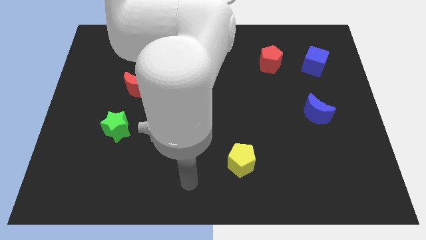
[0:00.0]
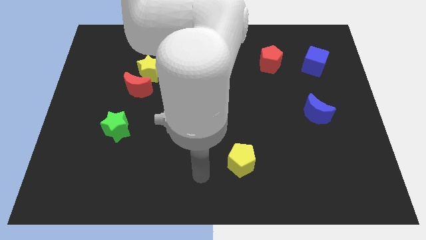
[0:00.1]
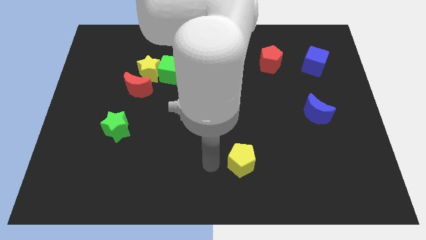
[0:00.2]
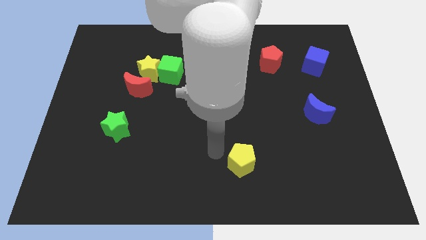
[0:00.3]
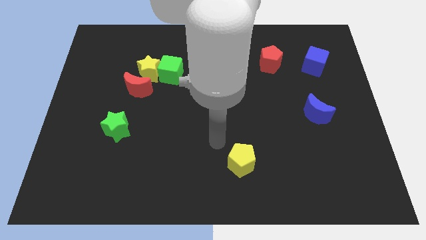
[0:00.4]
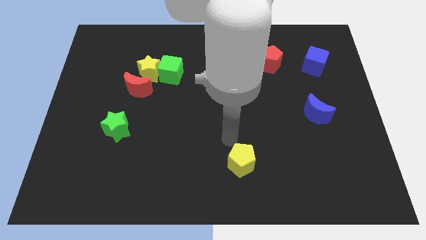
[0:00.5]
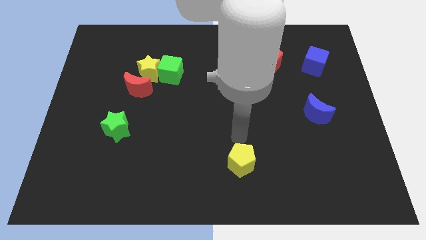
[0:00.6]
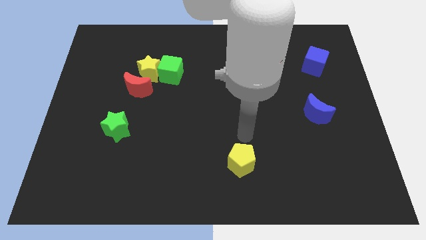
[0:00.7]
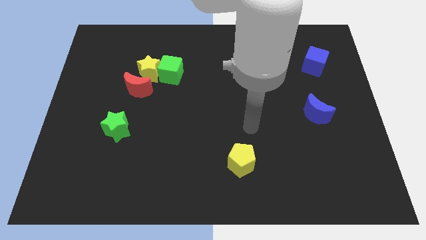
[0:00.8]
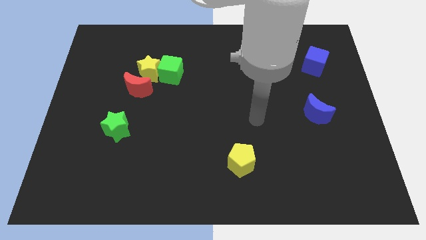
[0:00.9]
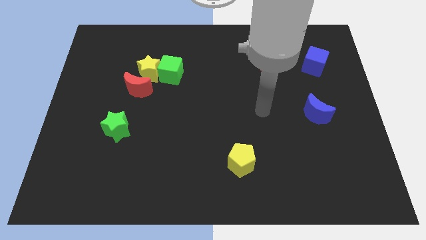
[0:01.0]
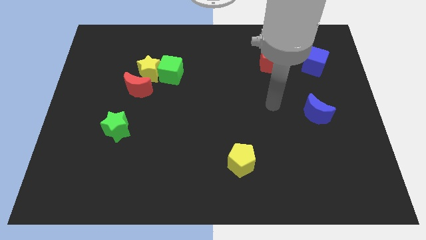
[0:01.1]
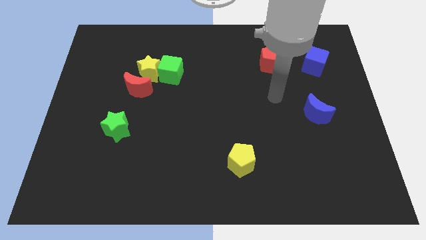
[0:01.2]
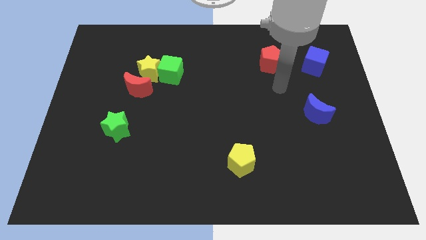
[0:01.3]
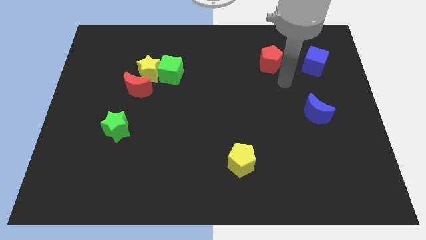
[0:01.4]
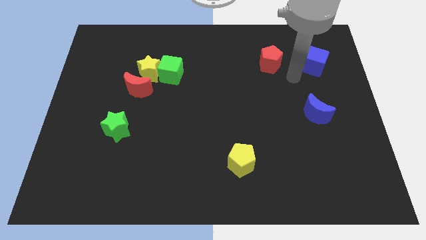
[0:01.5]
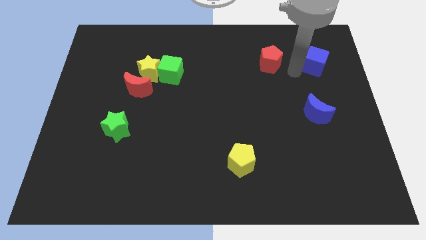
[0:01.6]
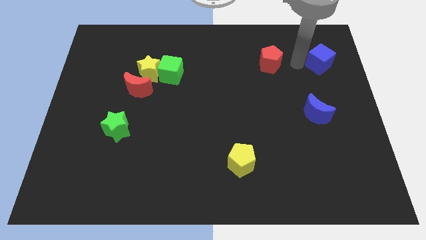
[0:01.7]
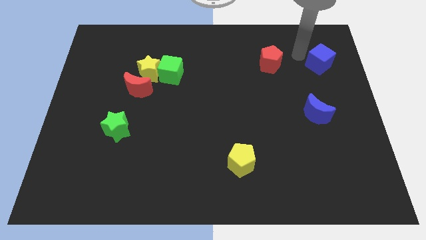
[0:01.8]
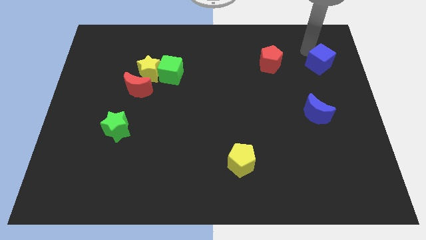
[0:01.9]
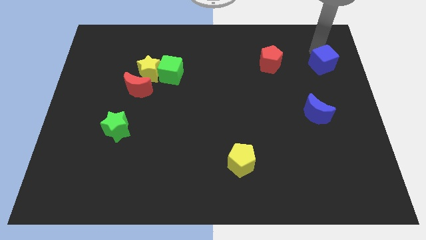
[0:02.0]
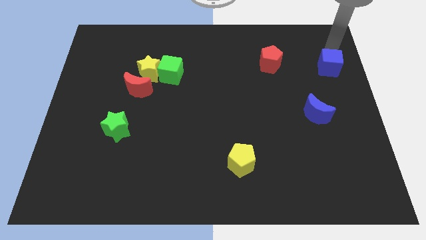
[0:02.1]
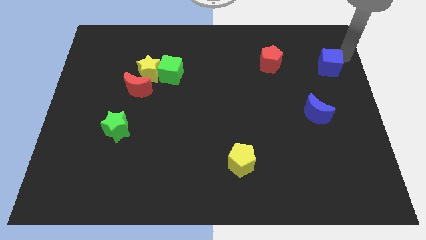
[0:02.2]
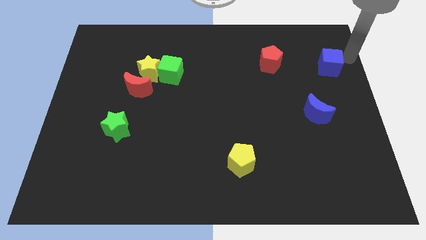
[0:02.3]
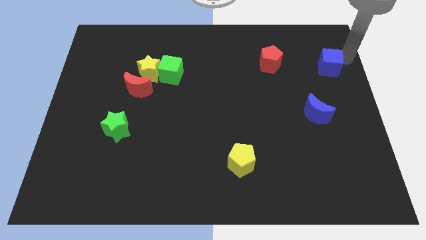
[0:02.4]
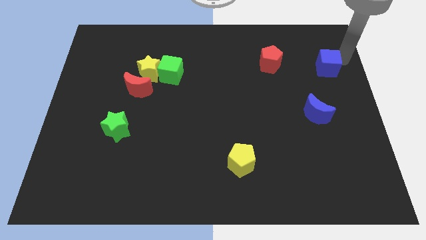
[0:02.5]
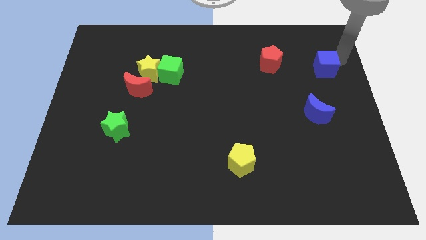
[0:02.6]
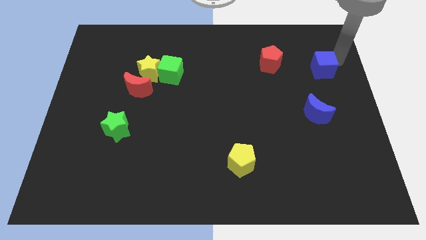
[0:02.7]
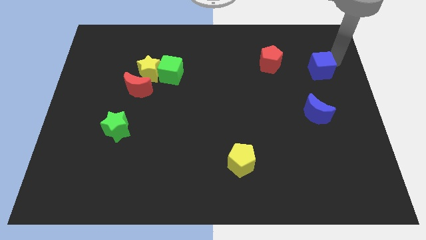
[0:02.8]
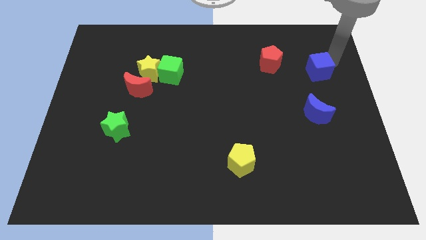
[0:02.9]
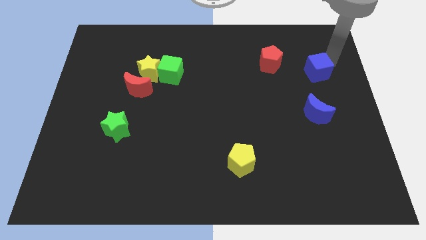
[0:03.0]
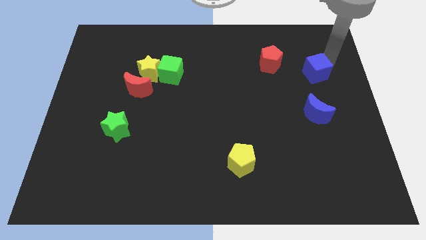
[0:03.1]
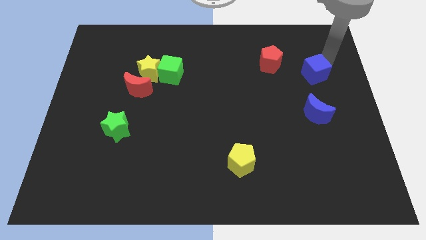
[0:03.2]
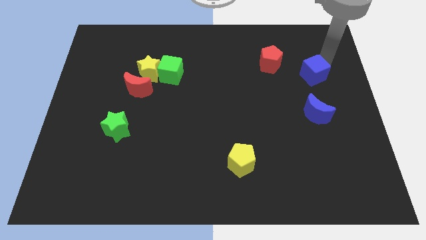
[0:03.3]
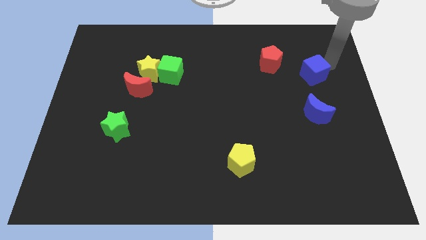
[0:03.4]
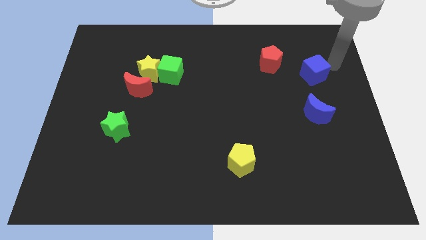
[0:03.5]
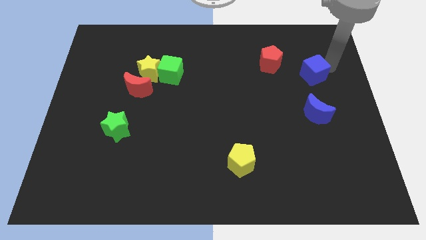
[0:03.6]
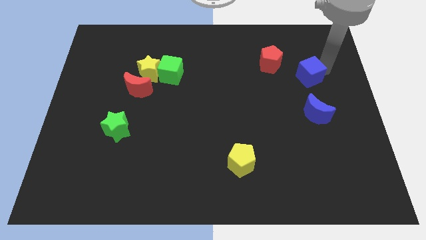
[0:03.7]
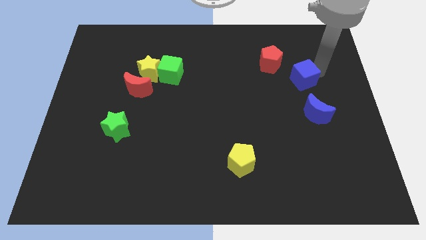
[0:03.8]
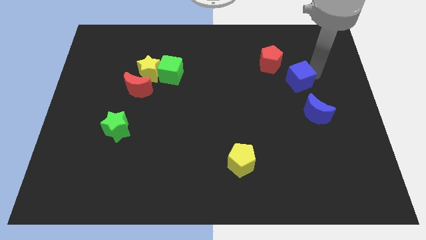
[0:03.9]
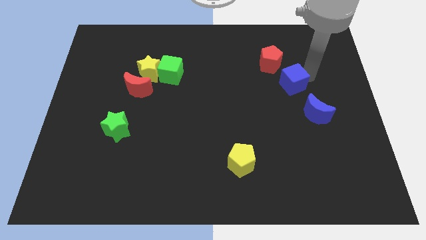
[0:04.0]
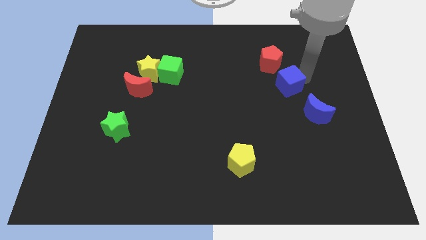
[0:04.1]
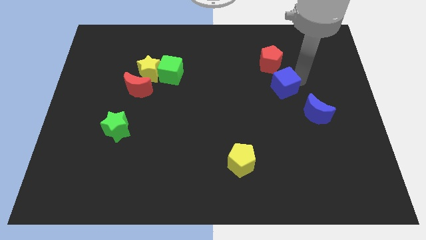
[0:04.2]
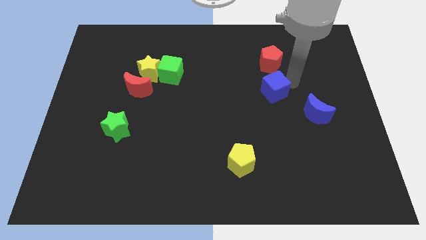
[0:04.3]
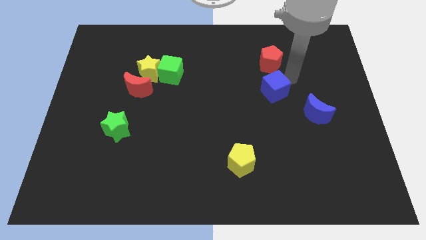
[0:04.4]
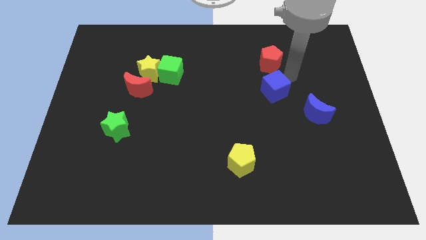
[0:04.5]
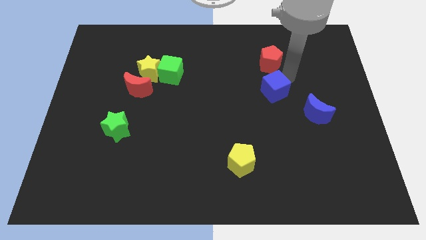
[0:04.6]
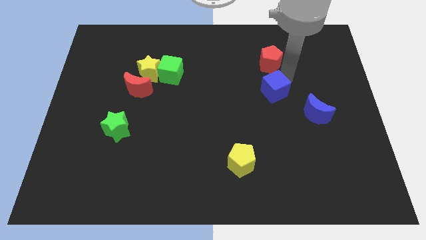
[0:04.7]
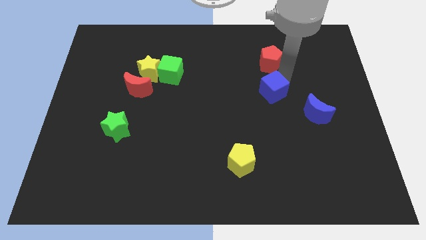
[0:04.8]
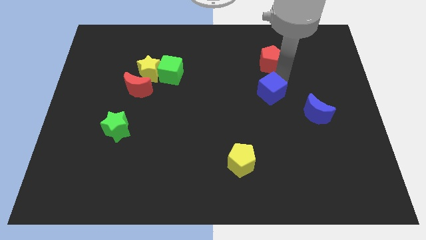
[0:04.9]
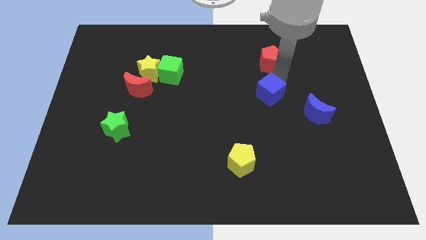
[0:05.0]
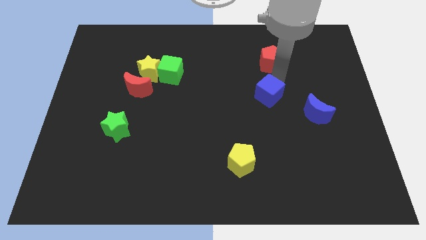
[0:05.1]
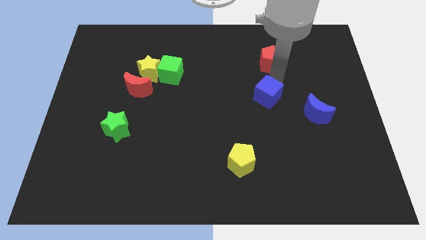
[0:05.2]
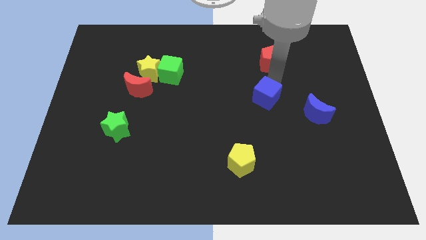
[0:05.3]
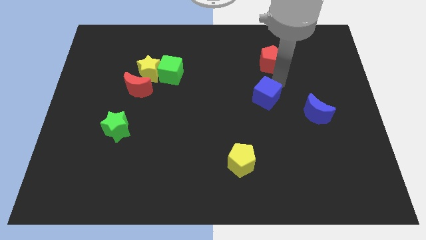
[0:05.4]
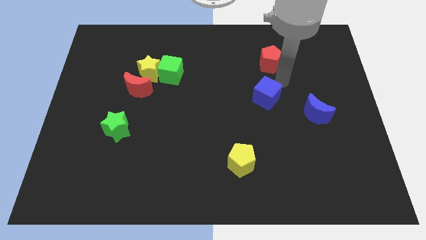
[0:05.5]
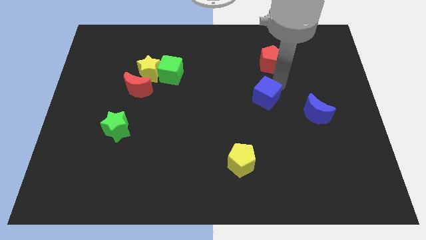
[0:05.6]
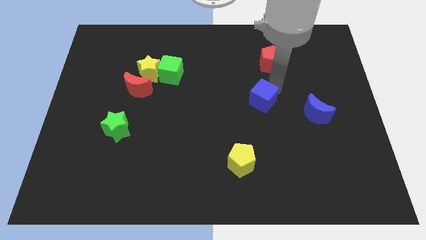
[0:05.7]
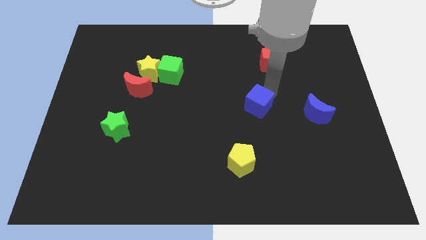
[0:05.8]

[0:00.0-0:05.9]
move the blue cube down and left diagonally

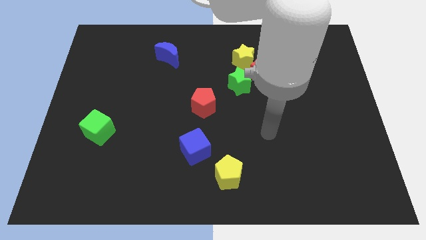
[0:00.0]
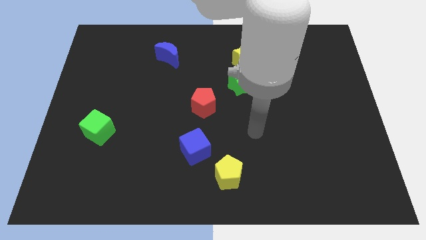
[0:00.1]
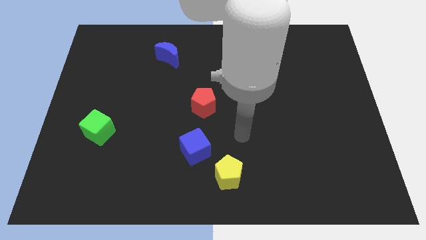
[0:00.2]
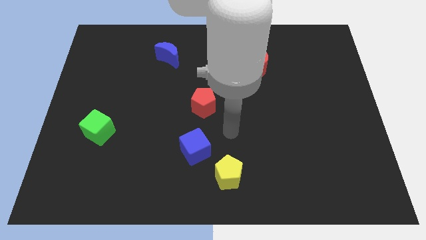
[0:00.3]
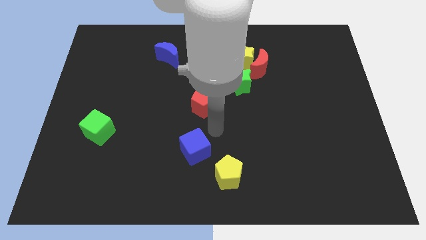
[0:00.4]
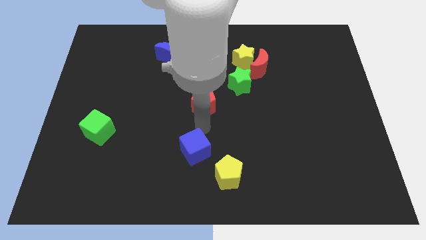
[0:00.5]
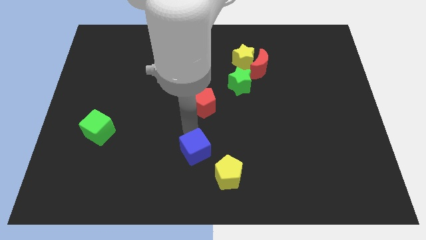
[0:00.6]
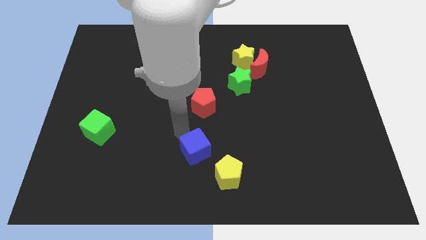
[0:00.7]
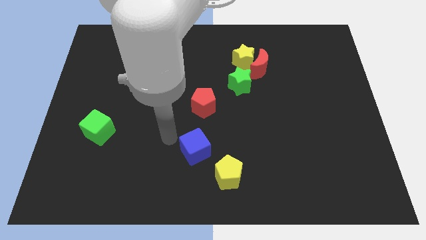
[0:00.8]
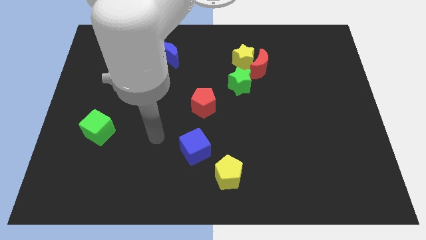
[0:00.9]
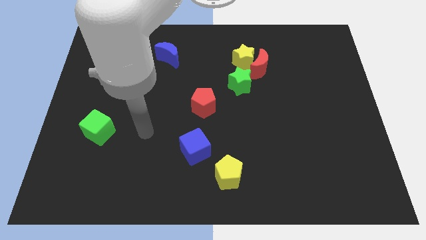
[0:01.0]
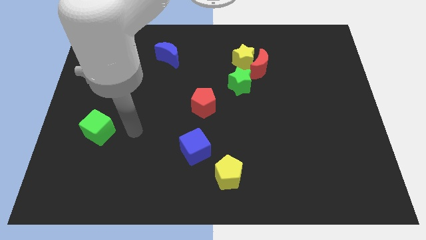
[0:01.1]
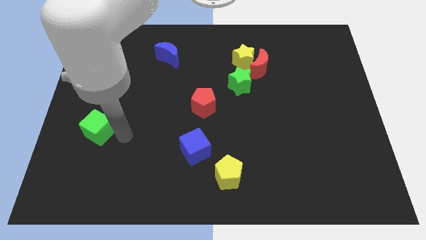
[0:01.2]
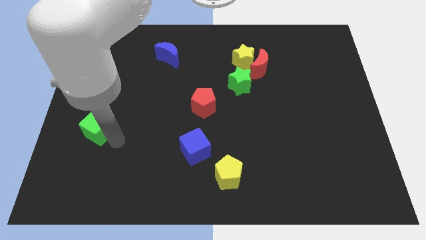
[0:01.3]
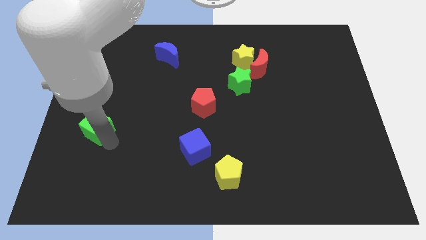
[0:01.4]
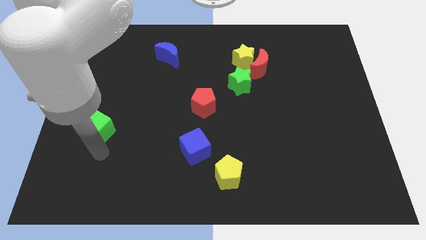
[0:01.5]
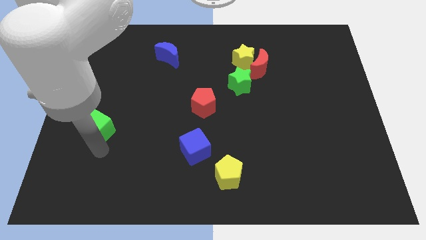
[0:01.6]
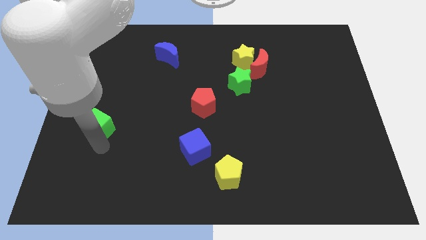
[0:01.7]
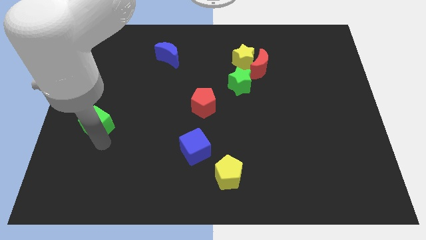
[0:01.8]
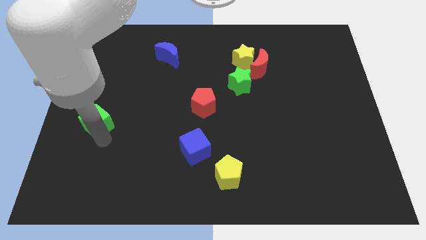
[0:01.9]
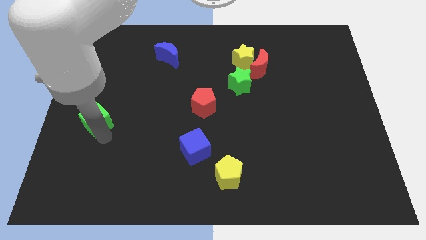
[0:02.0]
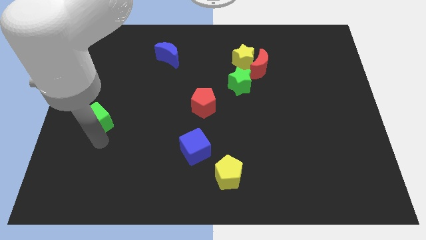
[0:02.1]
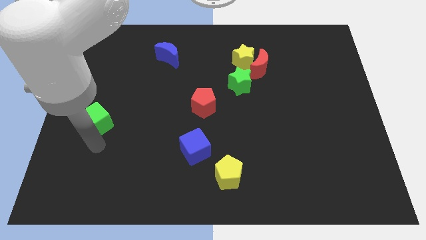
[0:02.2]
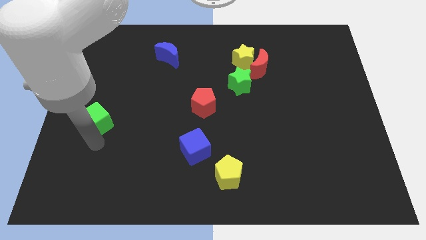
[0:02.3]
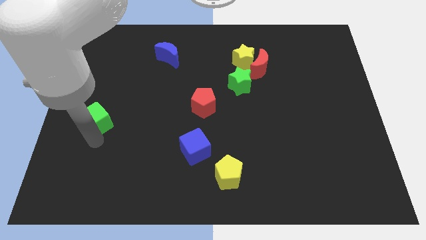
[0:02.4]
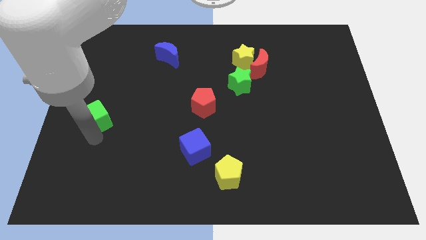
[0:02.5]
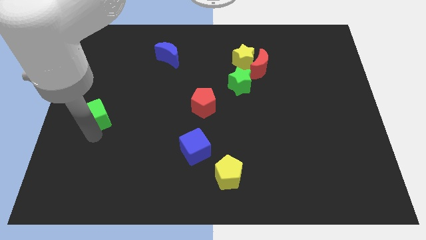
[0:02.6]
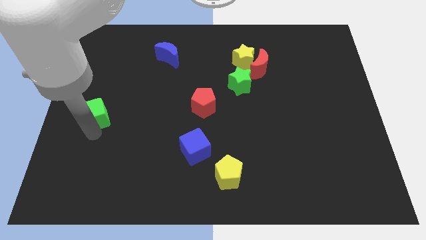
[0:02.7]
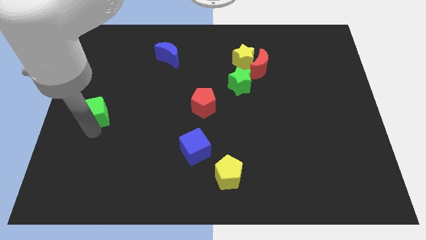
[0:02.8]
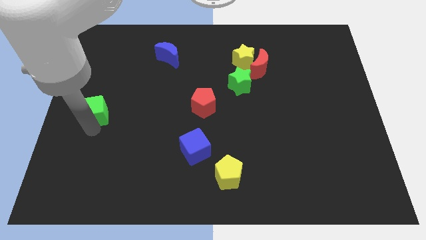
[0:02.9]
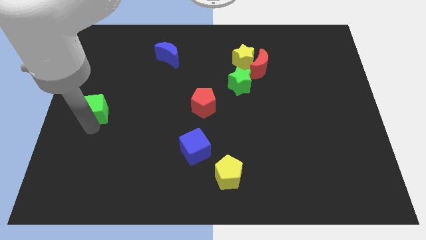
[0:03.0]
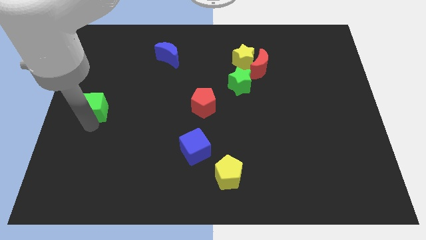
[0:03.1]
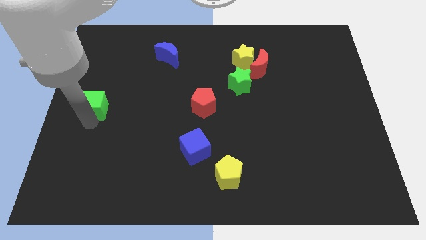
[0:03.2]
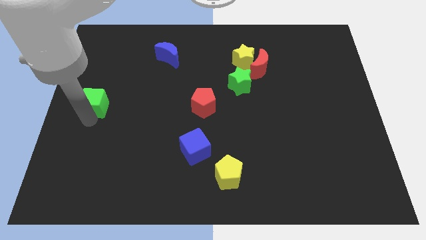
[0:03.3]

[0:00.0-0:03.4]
push the green cube slightly up
